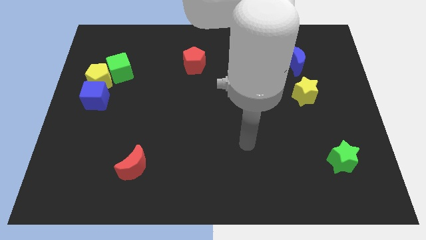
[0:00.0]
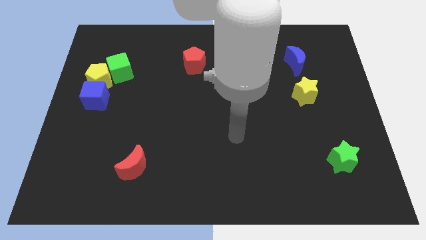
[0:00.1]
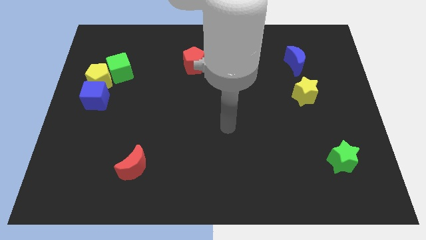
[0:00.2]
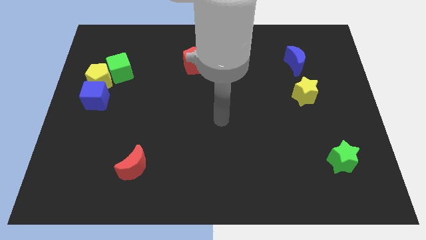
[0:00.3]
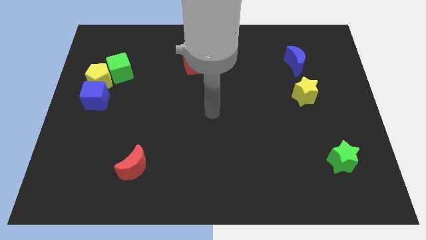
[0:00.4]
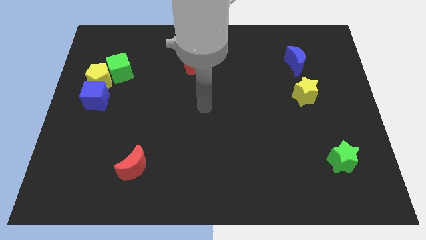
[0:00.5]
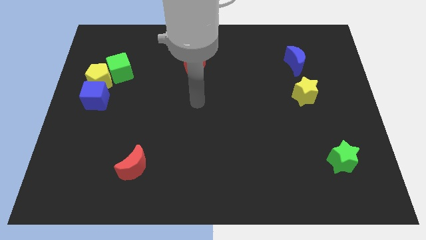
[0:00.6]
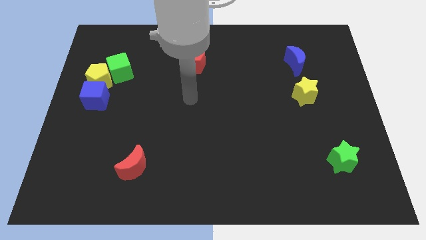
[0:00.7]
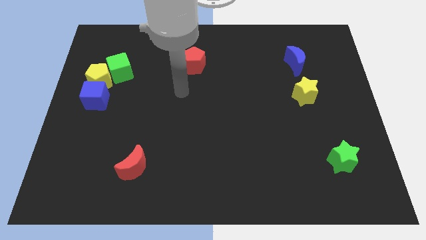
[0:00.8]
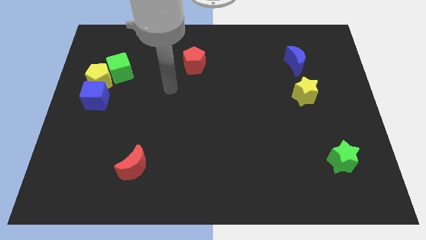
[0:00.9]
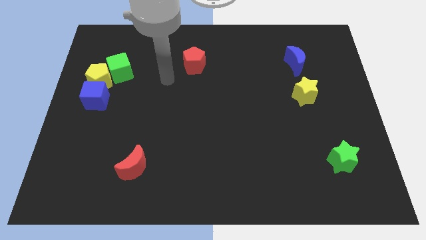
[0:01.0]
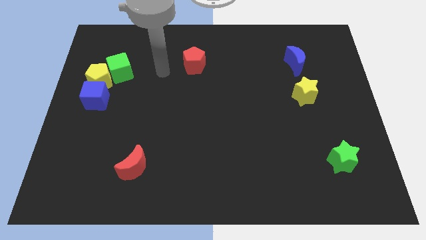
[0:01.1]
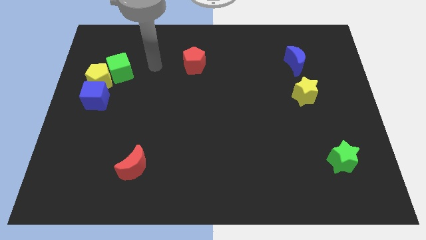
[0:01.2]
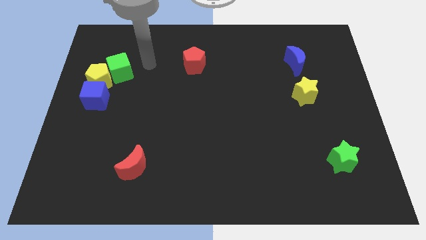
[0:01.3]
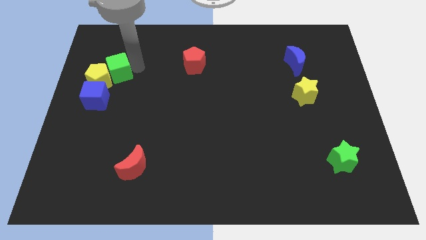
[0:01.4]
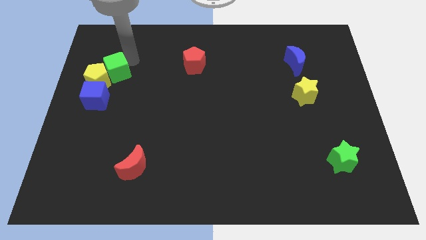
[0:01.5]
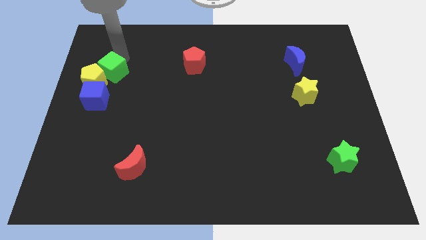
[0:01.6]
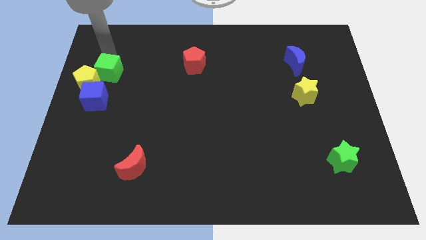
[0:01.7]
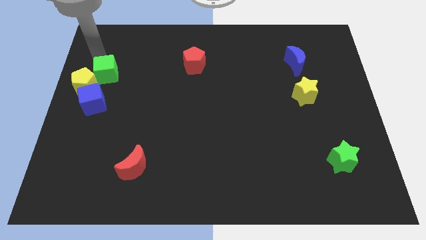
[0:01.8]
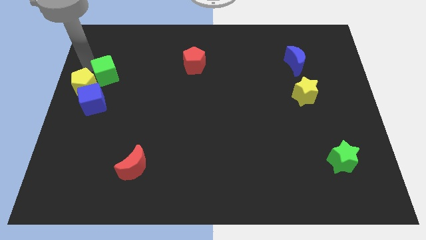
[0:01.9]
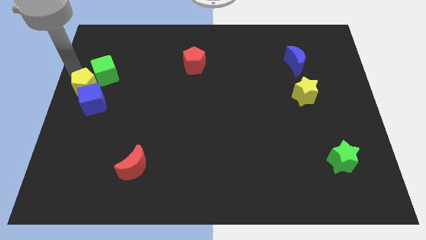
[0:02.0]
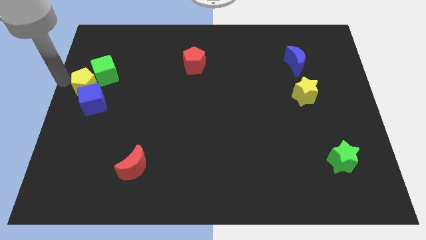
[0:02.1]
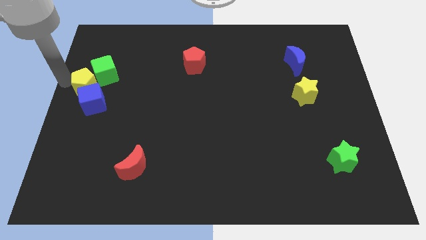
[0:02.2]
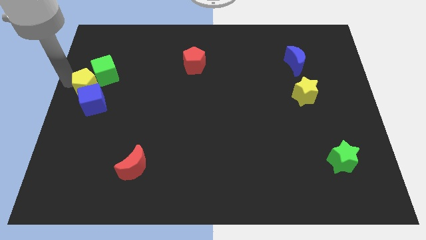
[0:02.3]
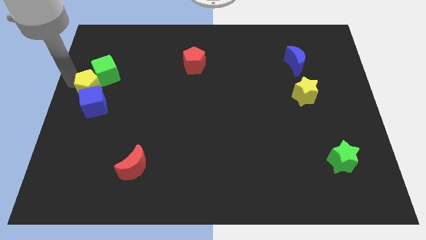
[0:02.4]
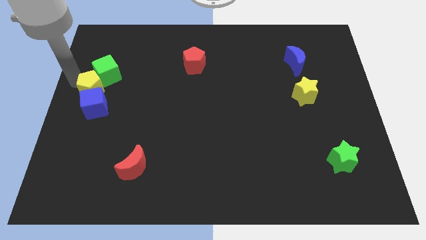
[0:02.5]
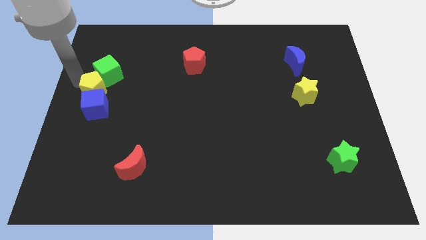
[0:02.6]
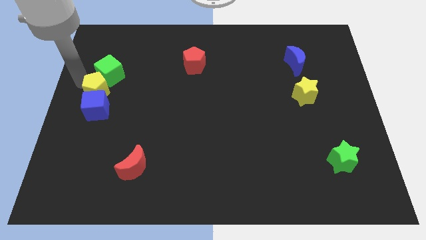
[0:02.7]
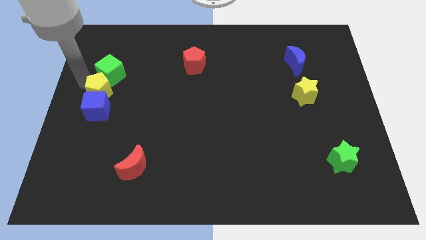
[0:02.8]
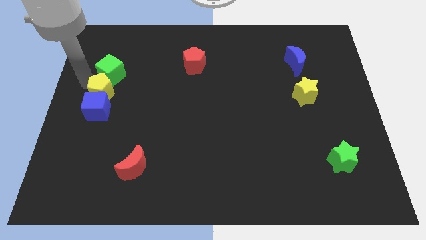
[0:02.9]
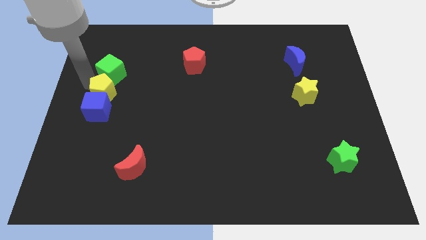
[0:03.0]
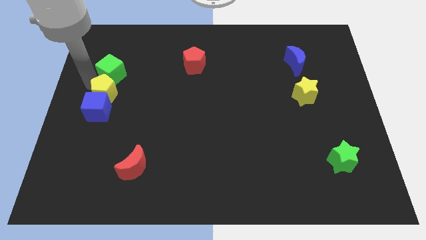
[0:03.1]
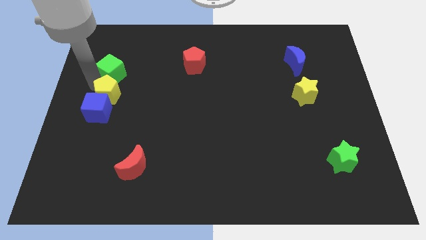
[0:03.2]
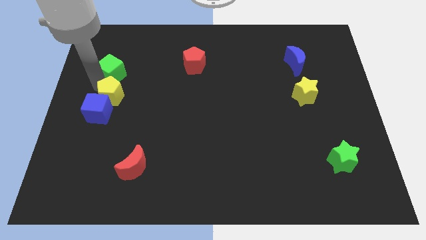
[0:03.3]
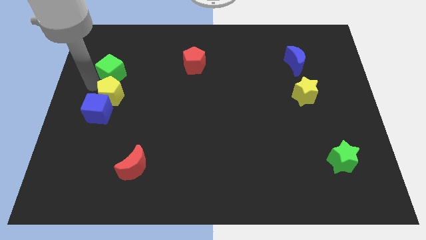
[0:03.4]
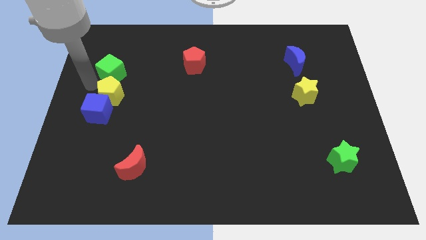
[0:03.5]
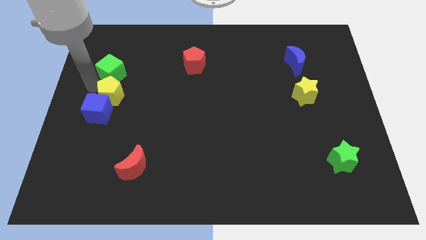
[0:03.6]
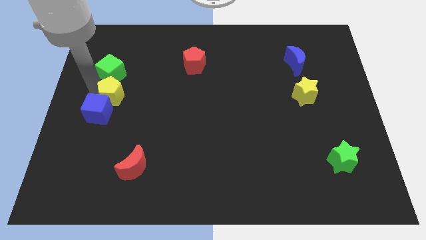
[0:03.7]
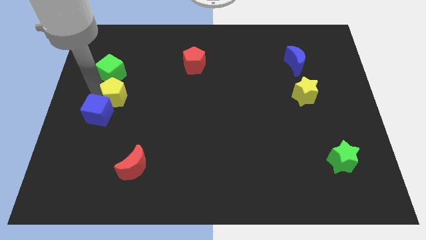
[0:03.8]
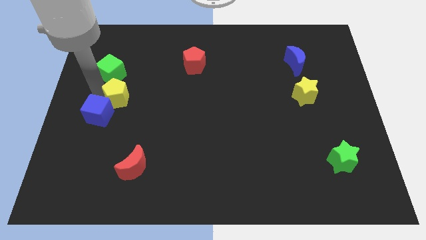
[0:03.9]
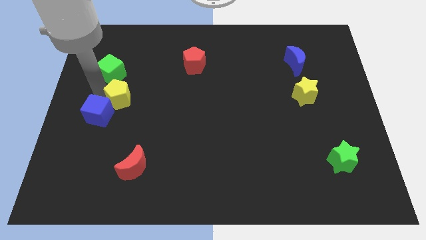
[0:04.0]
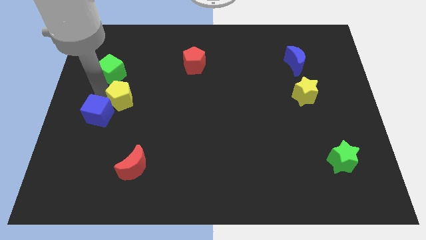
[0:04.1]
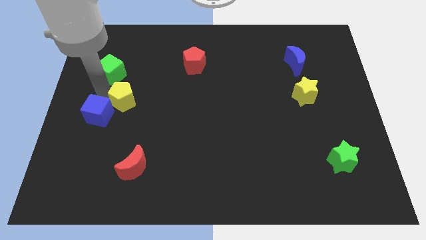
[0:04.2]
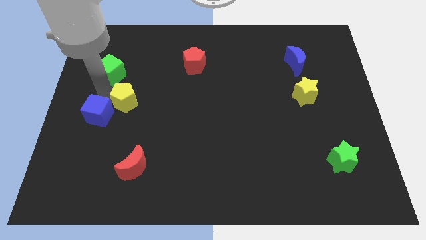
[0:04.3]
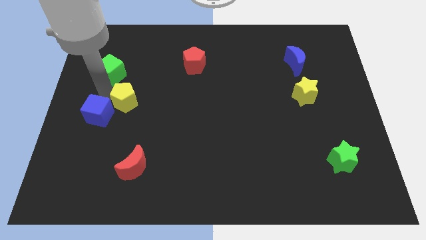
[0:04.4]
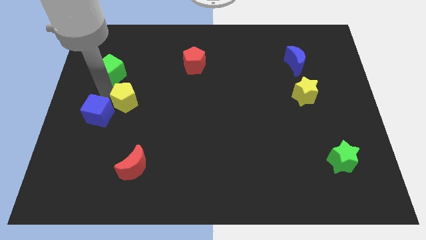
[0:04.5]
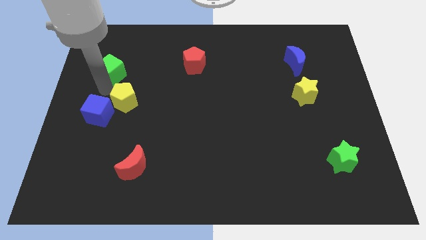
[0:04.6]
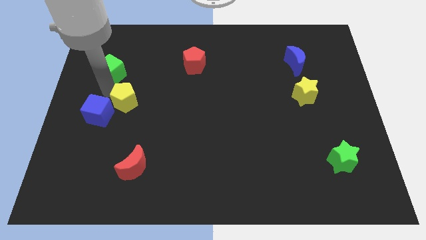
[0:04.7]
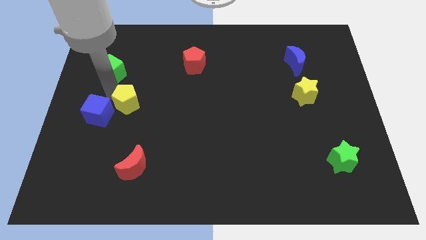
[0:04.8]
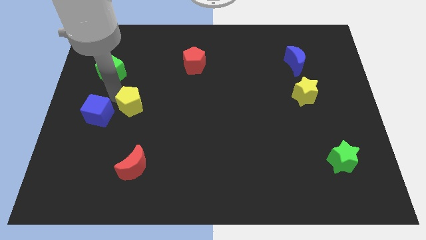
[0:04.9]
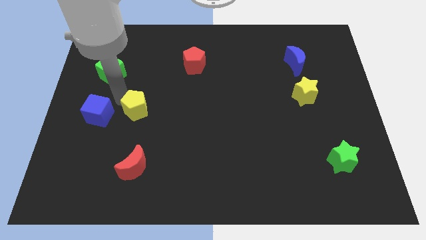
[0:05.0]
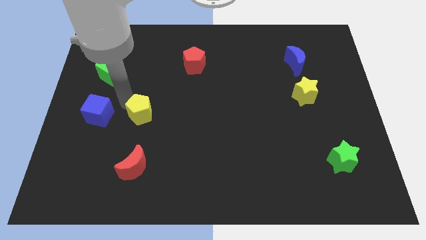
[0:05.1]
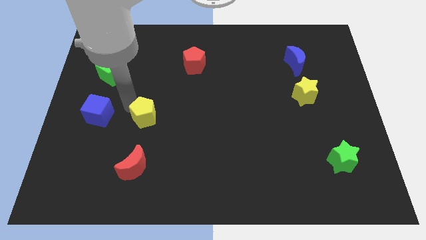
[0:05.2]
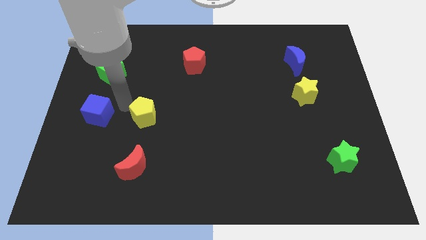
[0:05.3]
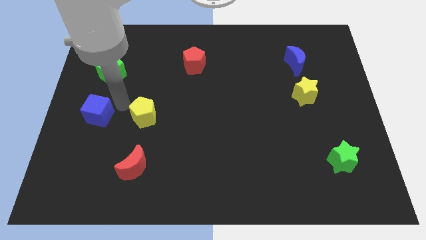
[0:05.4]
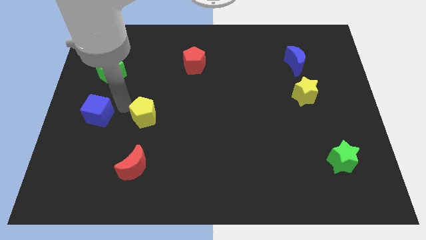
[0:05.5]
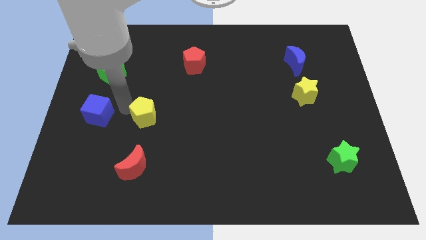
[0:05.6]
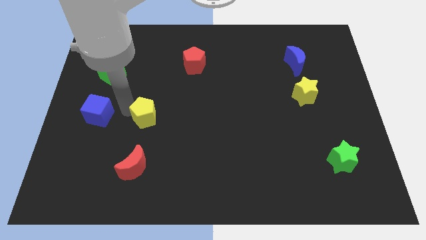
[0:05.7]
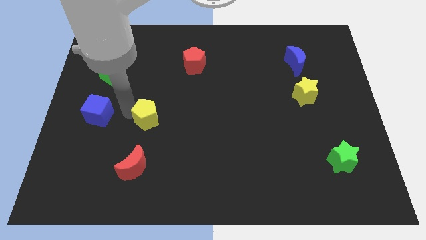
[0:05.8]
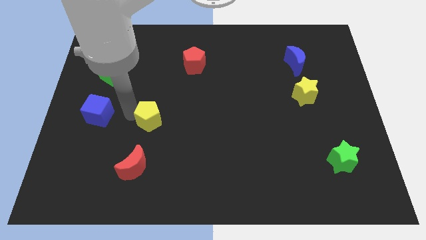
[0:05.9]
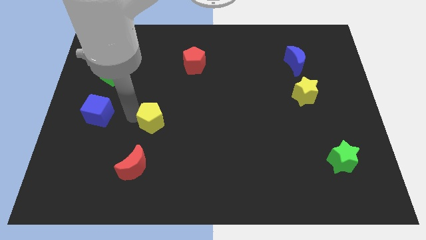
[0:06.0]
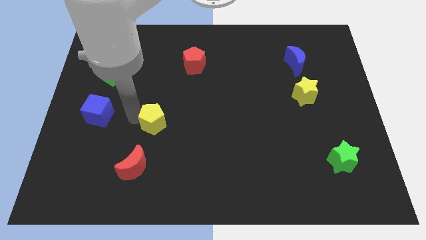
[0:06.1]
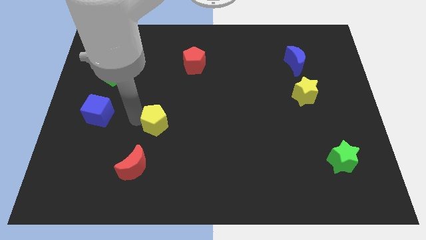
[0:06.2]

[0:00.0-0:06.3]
move the yellow pentagon down and to the right diagonally

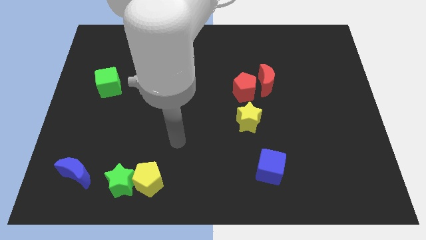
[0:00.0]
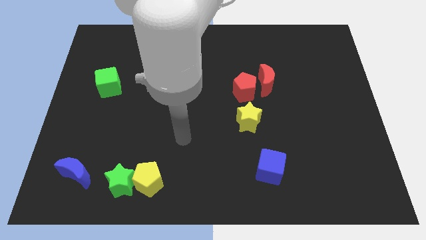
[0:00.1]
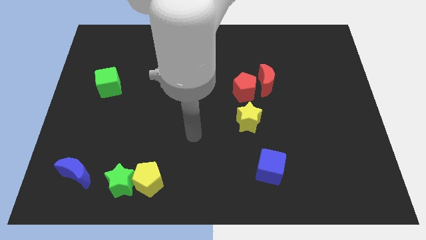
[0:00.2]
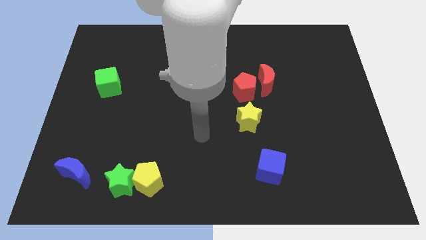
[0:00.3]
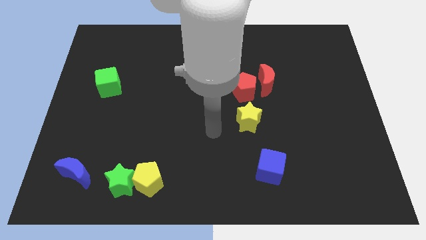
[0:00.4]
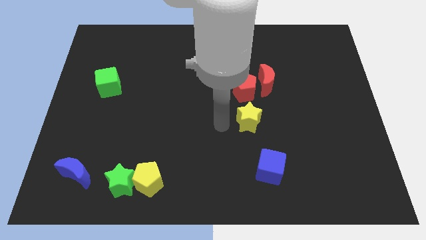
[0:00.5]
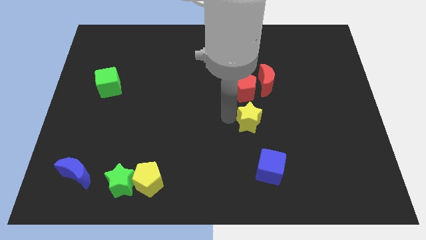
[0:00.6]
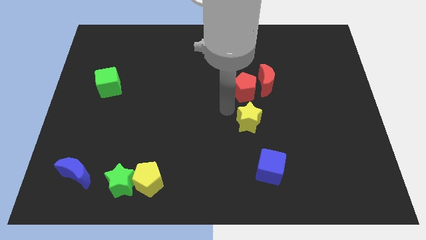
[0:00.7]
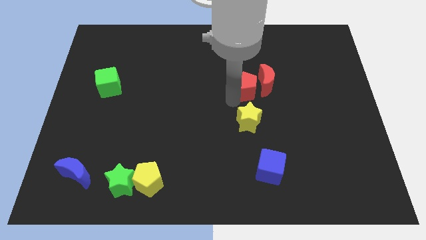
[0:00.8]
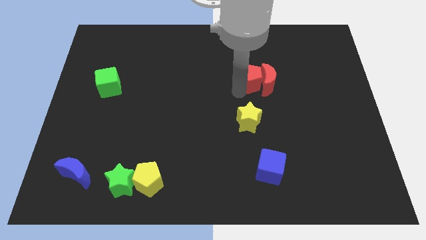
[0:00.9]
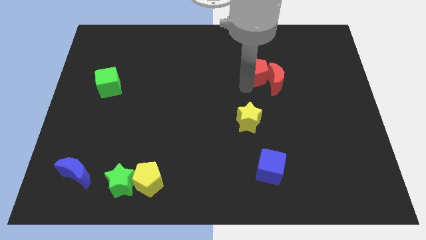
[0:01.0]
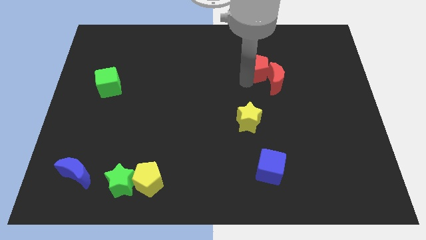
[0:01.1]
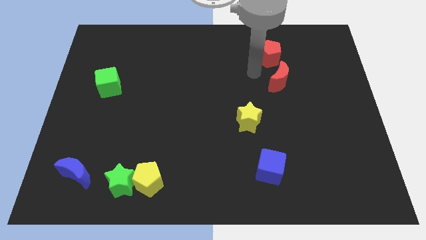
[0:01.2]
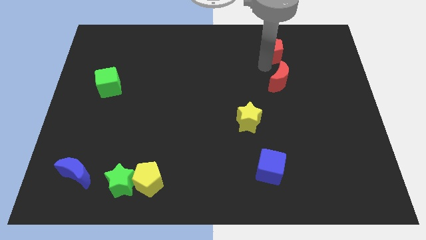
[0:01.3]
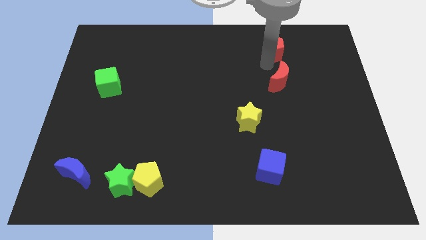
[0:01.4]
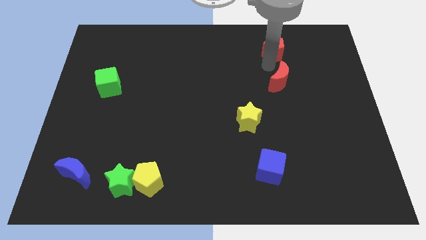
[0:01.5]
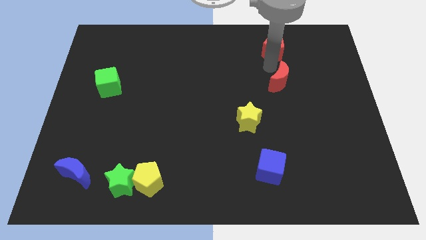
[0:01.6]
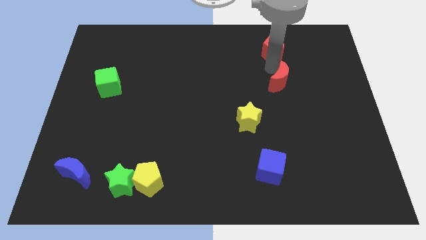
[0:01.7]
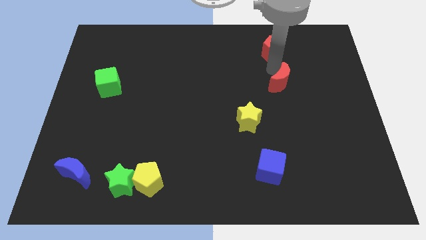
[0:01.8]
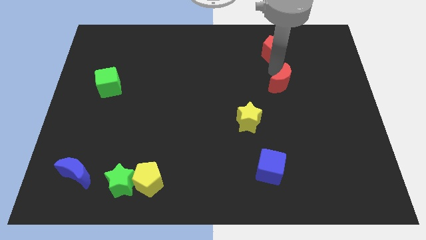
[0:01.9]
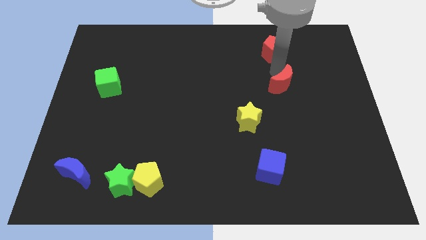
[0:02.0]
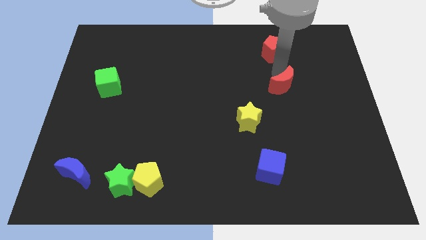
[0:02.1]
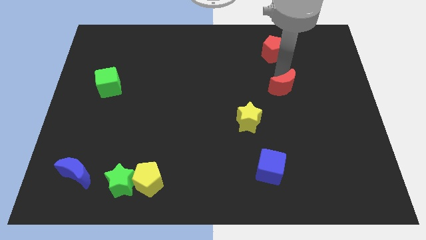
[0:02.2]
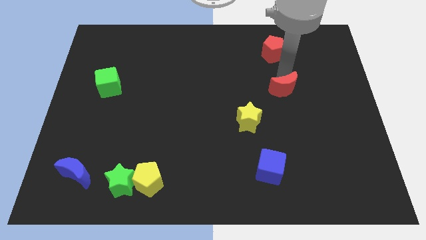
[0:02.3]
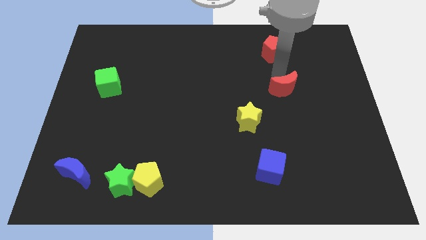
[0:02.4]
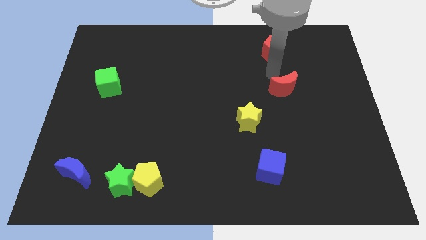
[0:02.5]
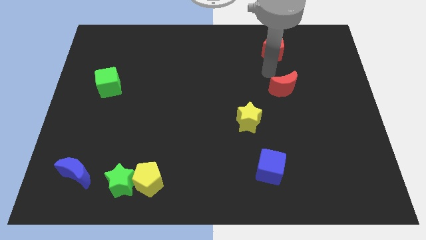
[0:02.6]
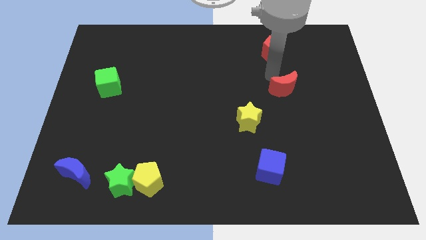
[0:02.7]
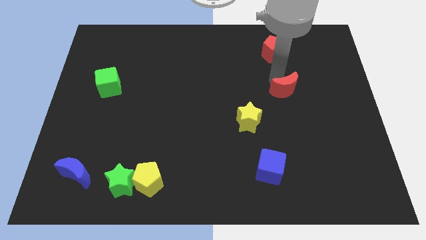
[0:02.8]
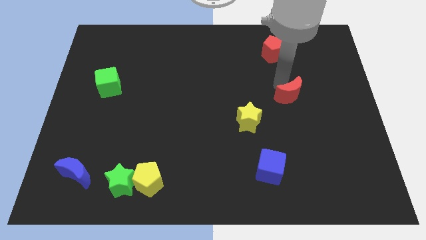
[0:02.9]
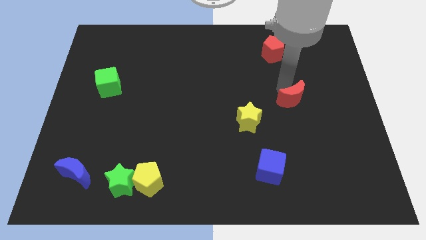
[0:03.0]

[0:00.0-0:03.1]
push the red moon slightly downwards and to the right
